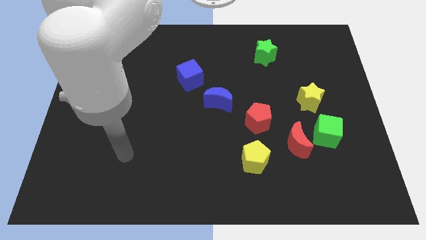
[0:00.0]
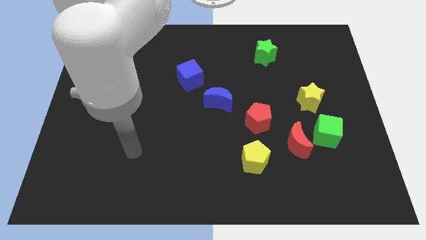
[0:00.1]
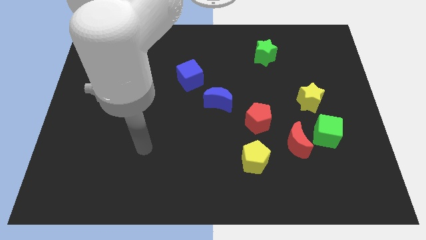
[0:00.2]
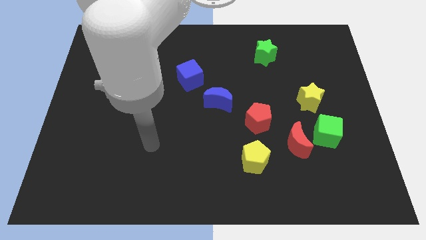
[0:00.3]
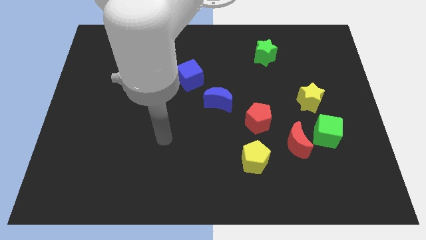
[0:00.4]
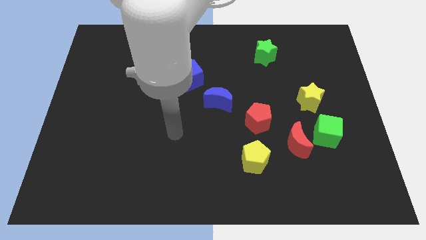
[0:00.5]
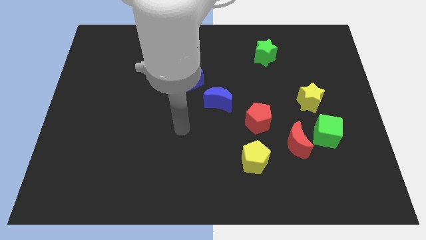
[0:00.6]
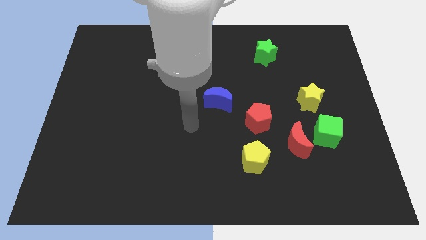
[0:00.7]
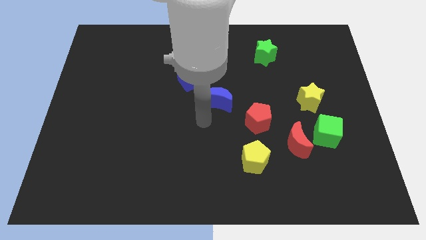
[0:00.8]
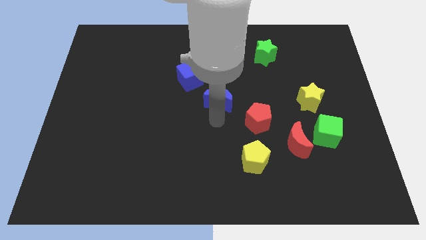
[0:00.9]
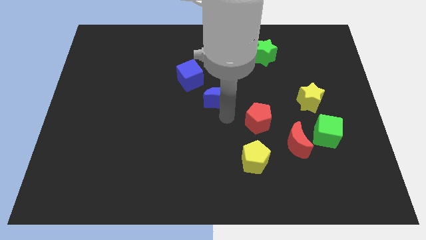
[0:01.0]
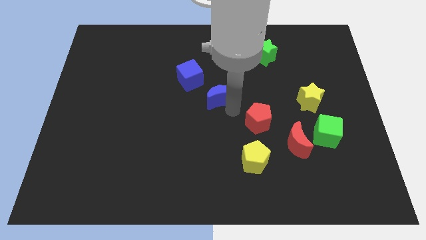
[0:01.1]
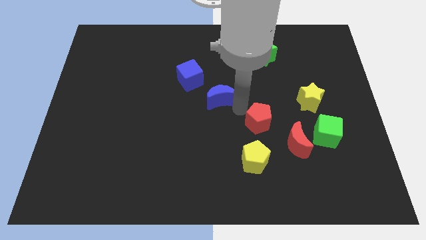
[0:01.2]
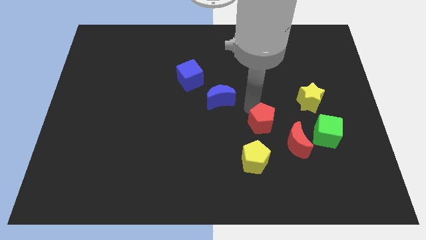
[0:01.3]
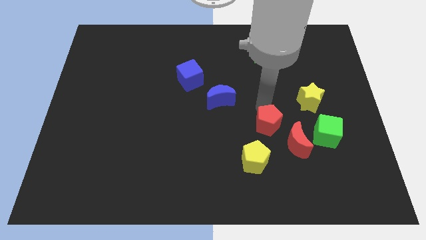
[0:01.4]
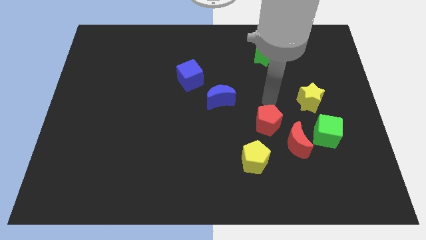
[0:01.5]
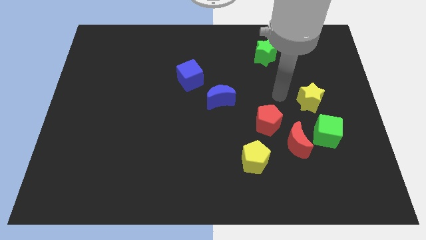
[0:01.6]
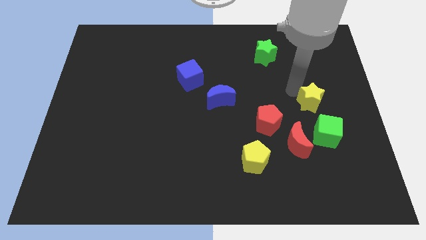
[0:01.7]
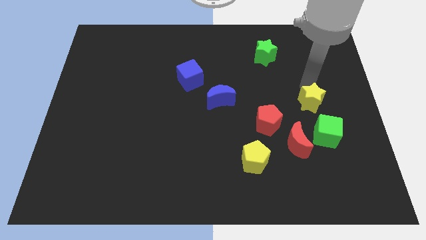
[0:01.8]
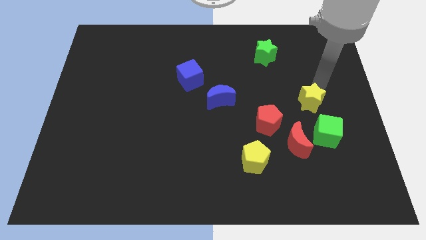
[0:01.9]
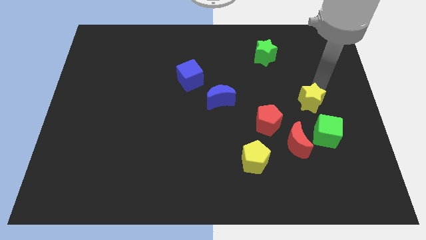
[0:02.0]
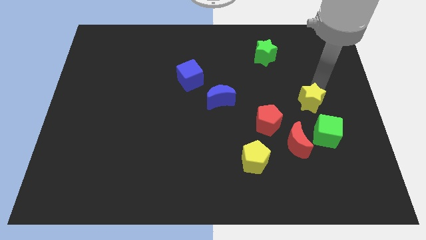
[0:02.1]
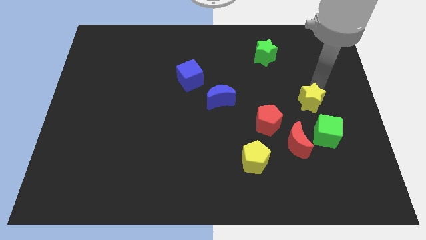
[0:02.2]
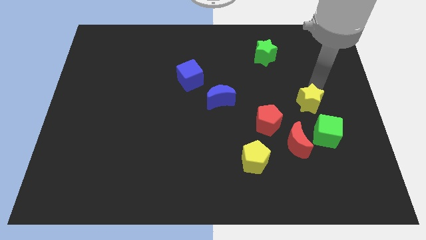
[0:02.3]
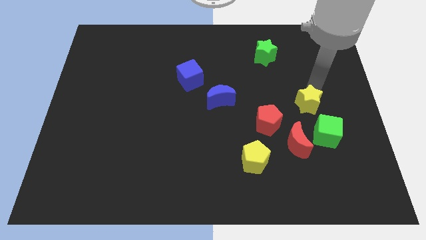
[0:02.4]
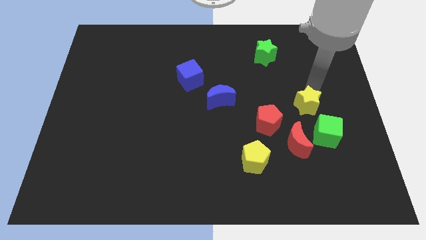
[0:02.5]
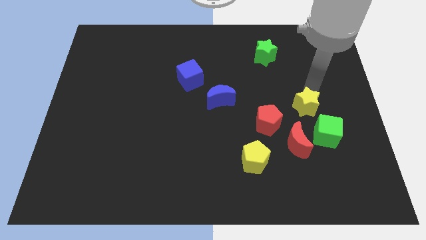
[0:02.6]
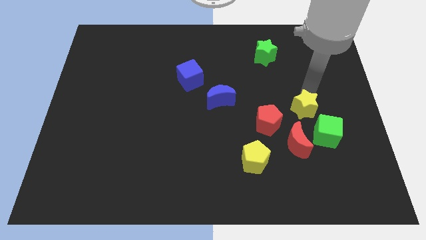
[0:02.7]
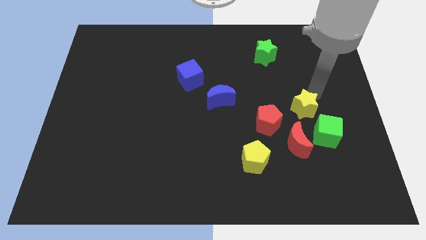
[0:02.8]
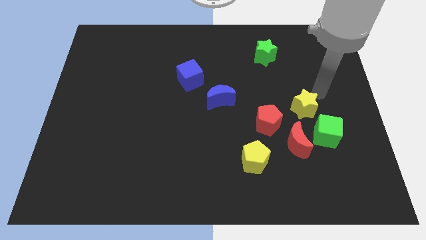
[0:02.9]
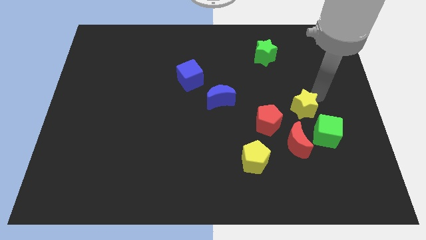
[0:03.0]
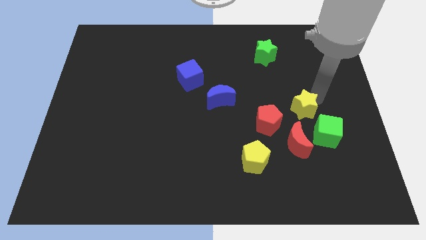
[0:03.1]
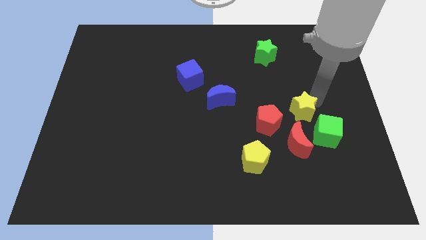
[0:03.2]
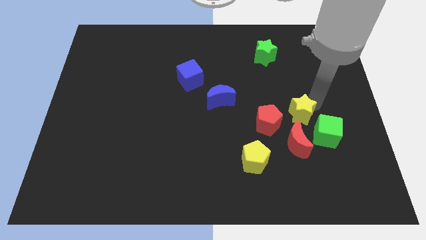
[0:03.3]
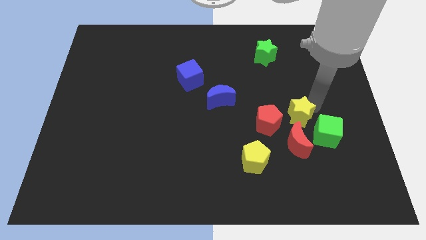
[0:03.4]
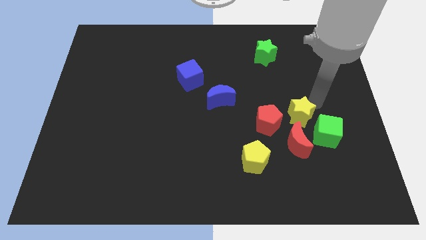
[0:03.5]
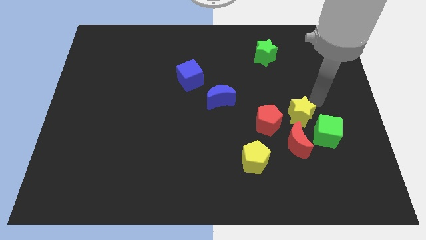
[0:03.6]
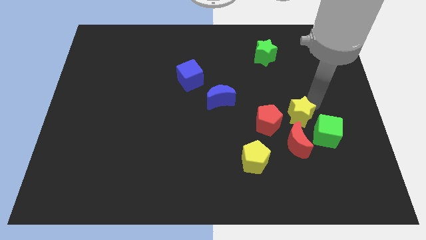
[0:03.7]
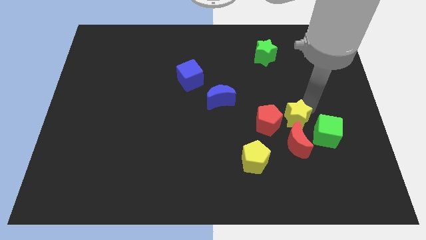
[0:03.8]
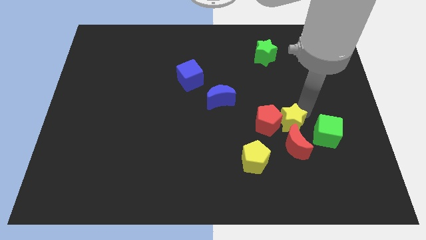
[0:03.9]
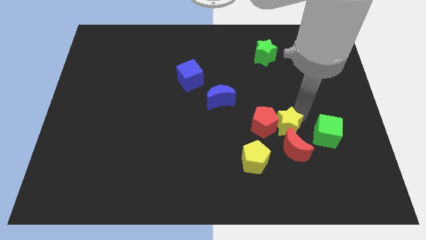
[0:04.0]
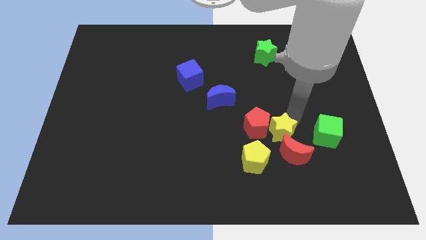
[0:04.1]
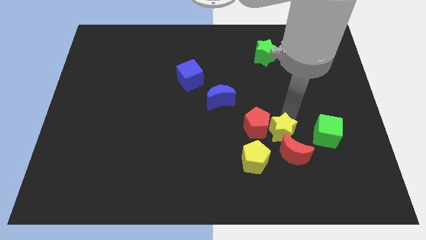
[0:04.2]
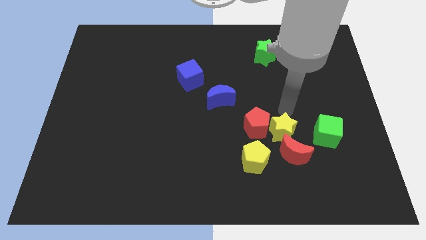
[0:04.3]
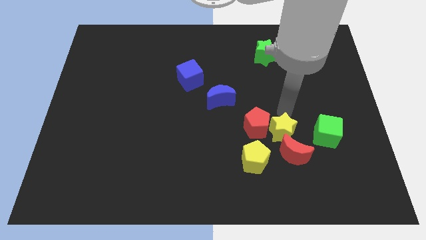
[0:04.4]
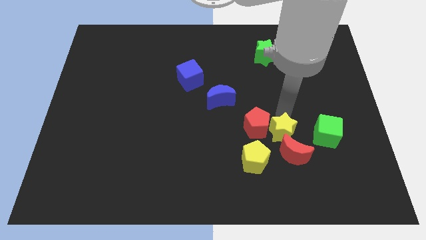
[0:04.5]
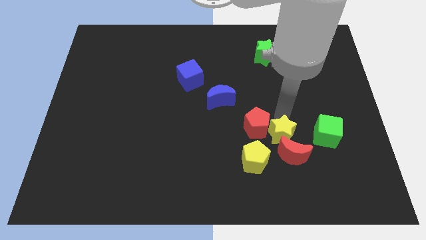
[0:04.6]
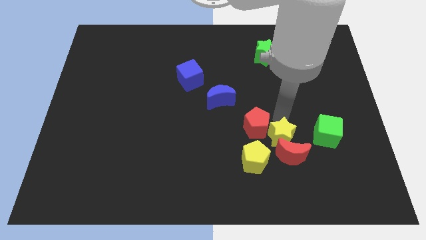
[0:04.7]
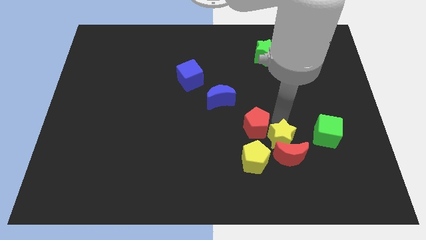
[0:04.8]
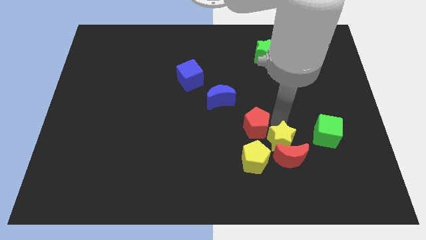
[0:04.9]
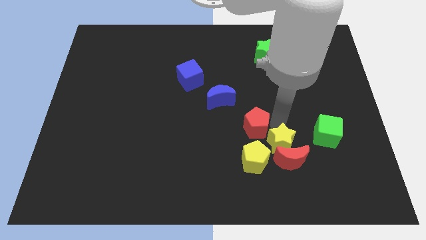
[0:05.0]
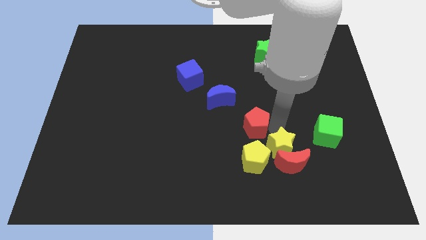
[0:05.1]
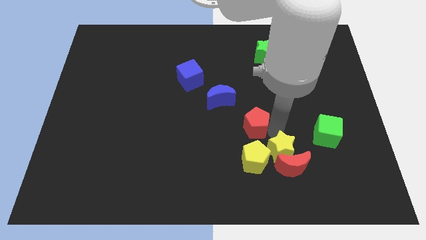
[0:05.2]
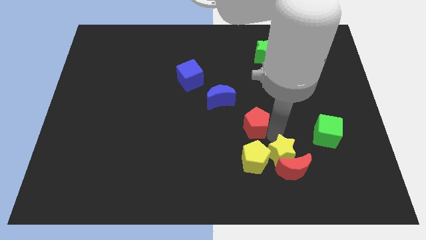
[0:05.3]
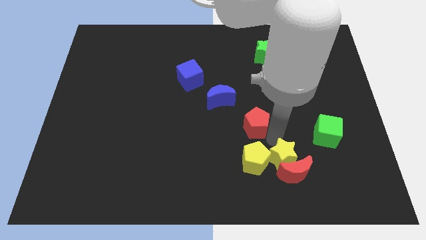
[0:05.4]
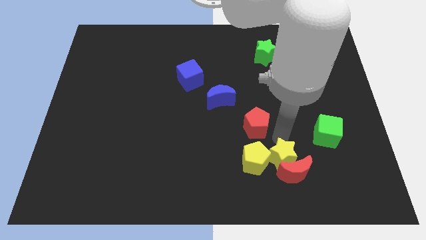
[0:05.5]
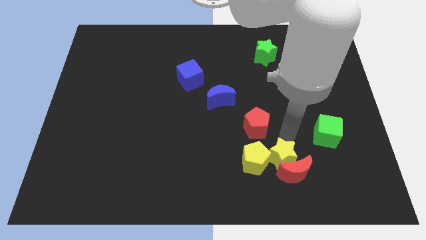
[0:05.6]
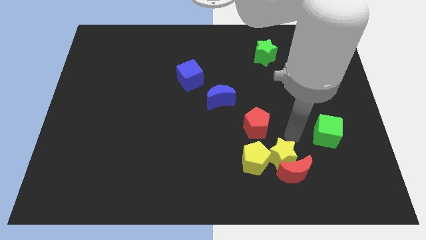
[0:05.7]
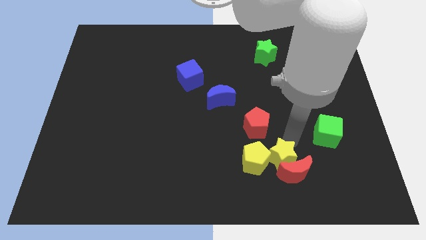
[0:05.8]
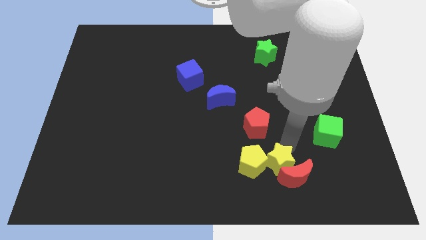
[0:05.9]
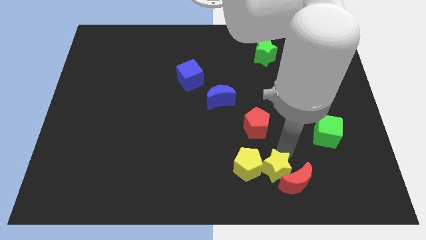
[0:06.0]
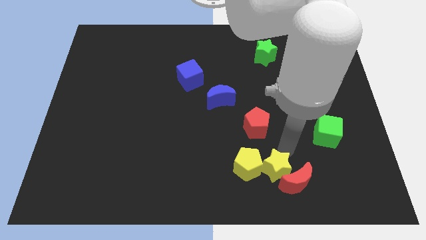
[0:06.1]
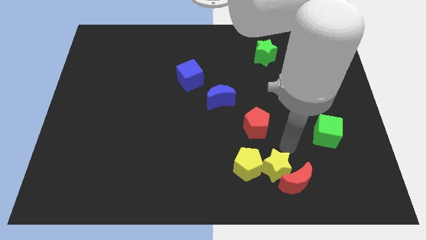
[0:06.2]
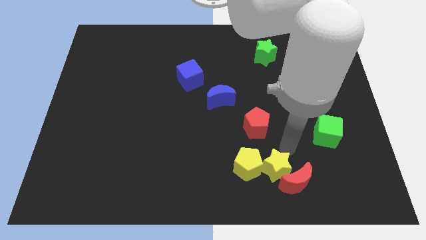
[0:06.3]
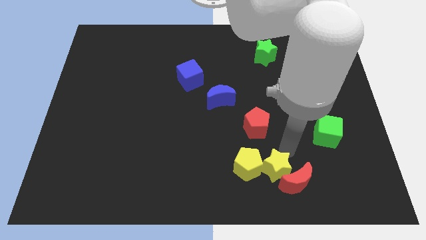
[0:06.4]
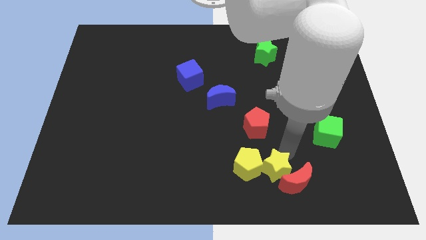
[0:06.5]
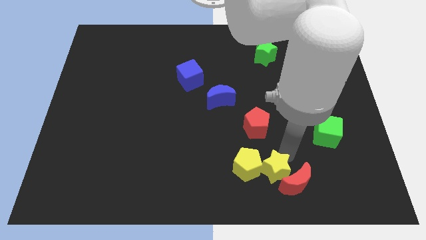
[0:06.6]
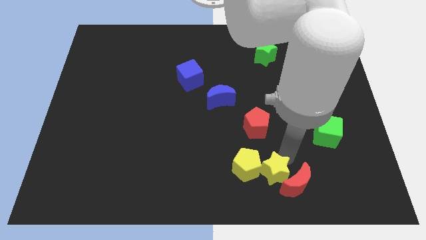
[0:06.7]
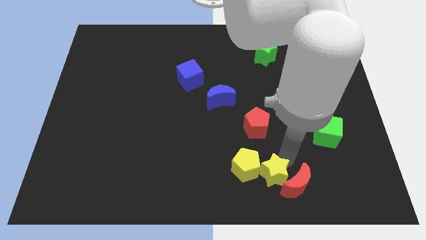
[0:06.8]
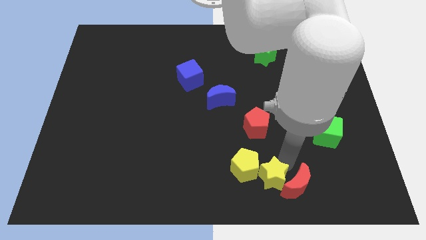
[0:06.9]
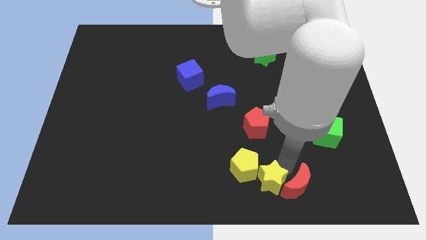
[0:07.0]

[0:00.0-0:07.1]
slide the yellow star to the bottom side

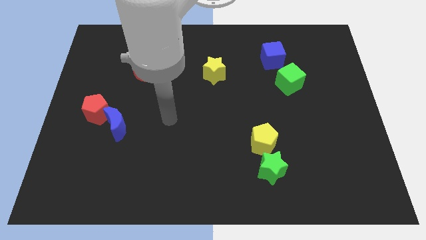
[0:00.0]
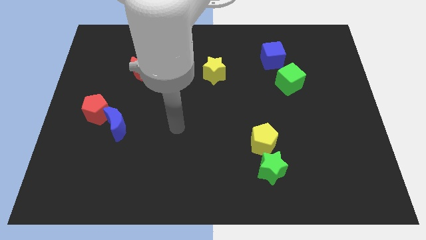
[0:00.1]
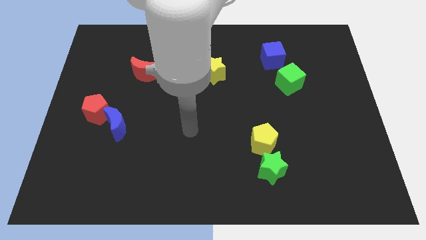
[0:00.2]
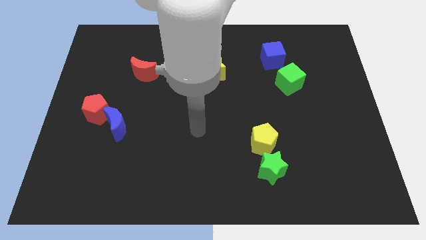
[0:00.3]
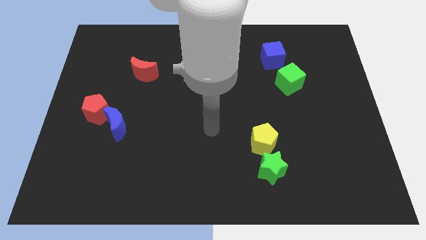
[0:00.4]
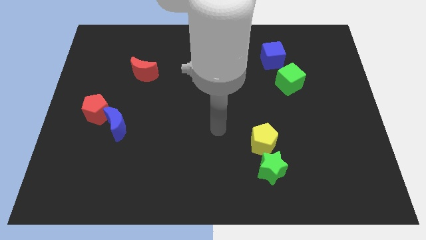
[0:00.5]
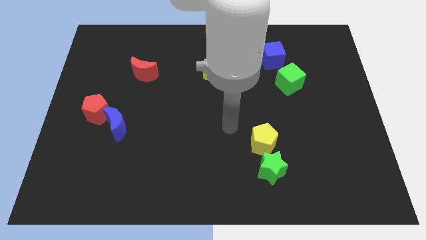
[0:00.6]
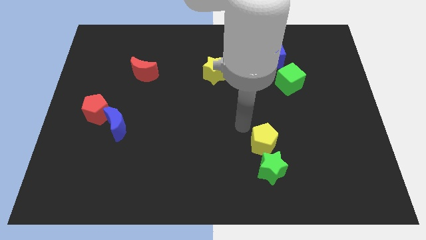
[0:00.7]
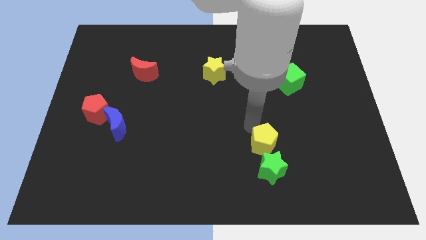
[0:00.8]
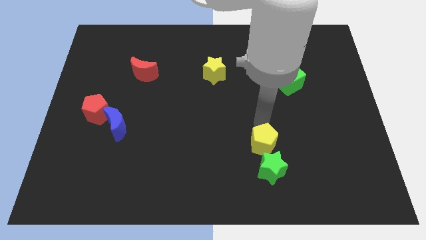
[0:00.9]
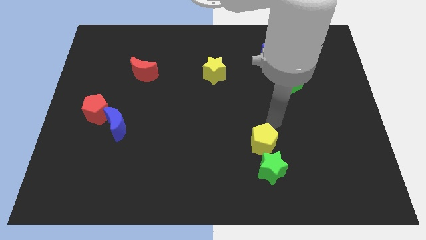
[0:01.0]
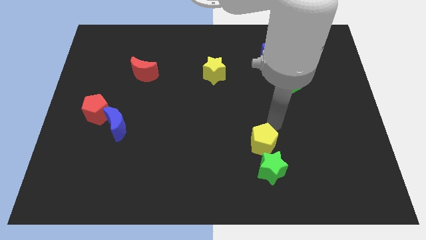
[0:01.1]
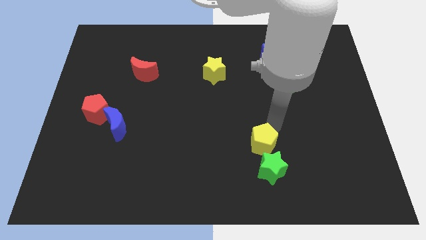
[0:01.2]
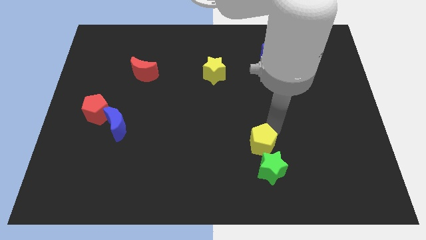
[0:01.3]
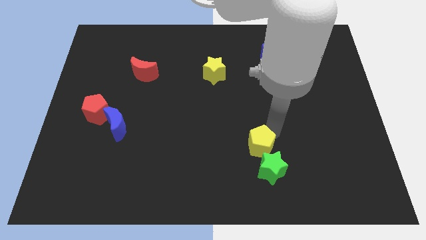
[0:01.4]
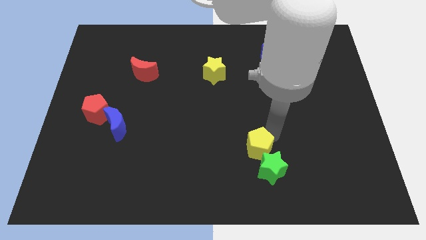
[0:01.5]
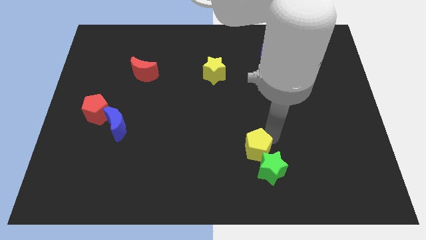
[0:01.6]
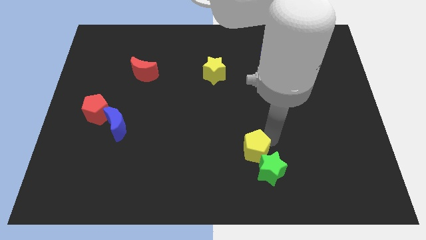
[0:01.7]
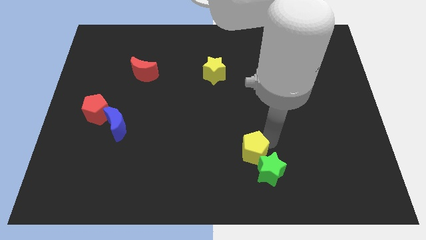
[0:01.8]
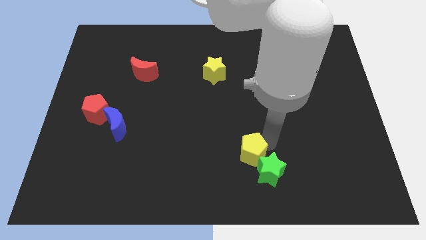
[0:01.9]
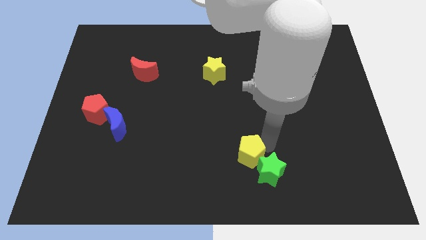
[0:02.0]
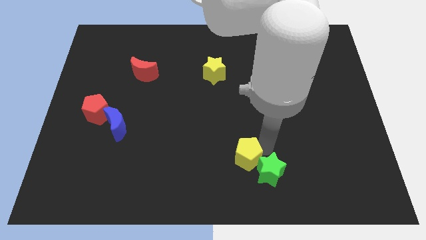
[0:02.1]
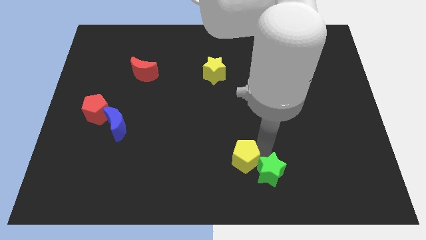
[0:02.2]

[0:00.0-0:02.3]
move the yellow pentagon to the bottom side
